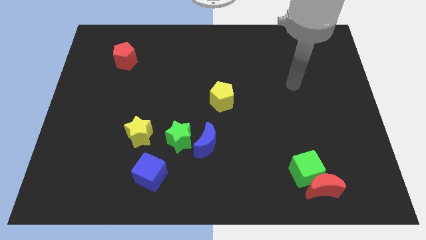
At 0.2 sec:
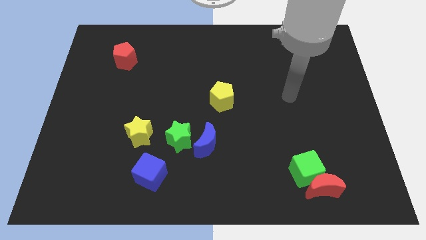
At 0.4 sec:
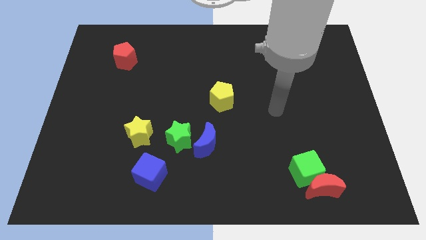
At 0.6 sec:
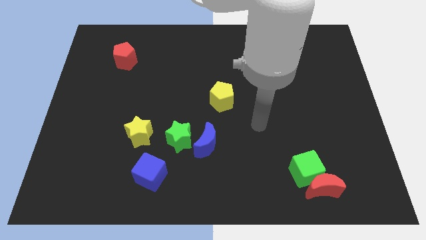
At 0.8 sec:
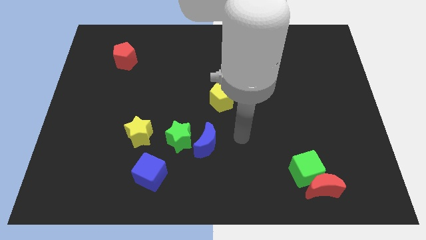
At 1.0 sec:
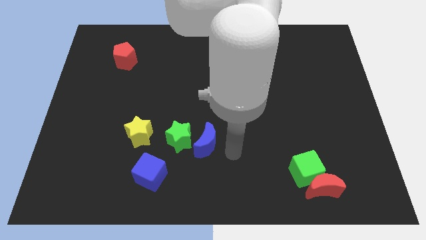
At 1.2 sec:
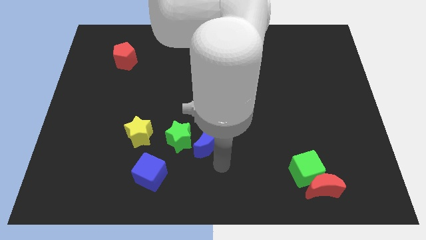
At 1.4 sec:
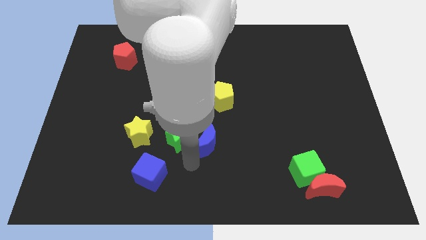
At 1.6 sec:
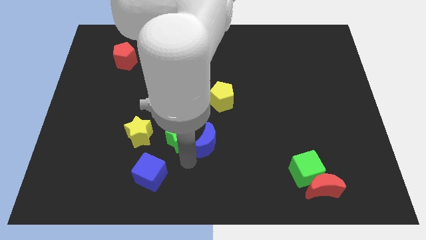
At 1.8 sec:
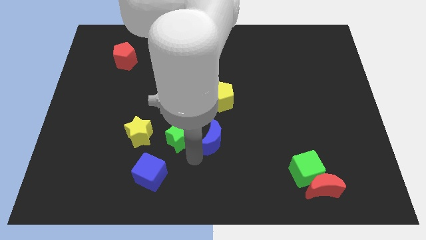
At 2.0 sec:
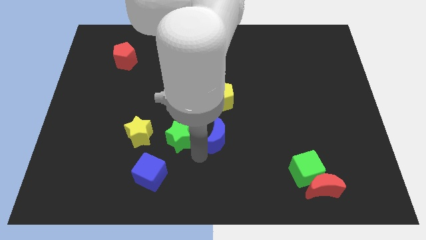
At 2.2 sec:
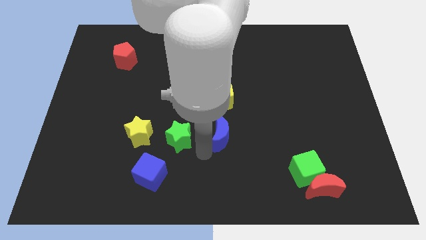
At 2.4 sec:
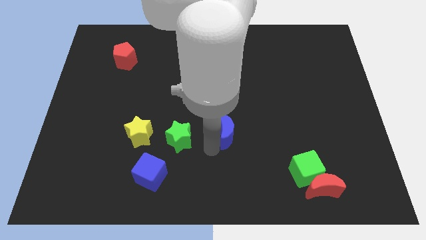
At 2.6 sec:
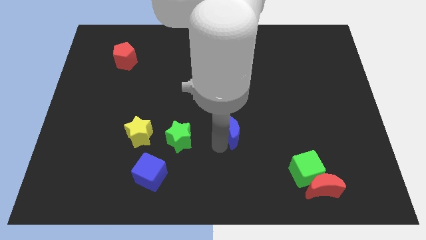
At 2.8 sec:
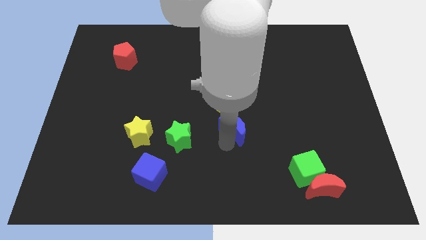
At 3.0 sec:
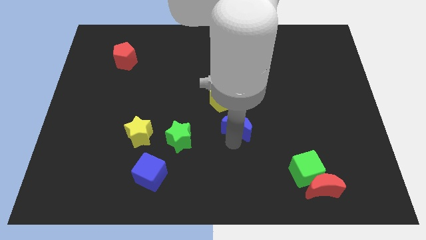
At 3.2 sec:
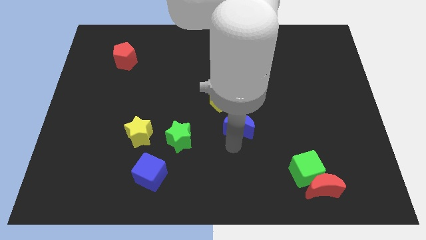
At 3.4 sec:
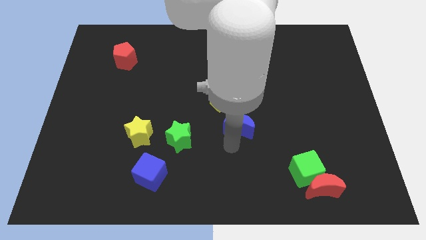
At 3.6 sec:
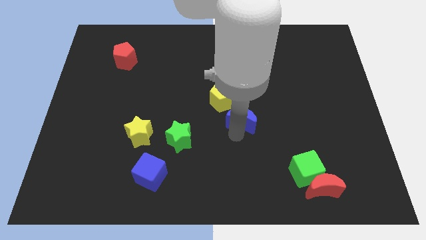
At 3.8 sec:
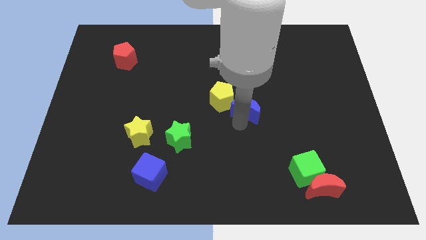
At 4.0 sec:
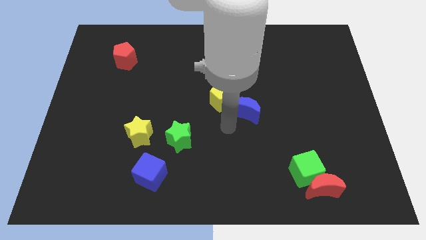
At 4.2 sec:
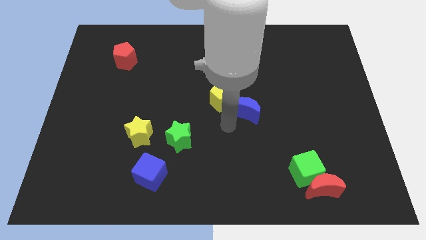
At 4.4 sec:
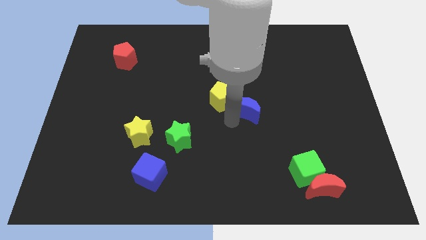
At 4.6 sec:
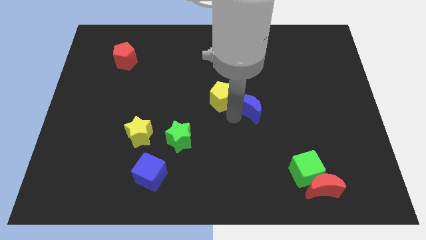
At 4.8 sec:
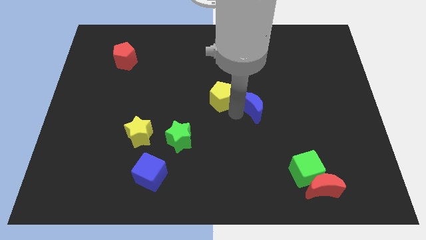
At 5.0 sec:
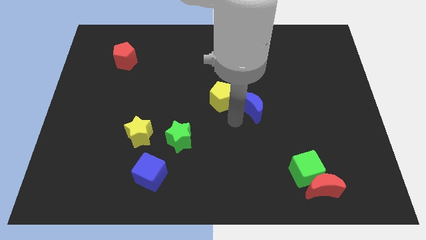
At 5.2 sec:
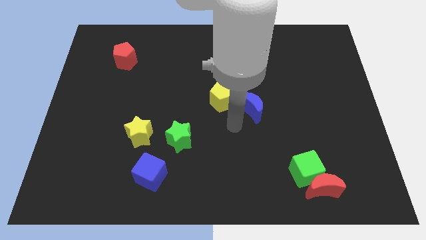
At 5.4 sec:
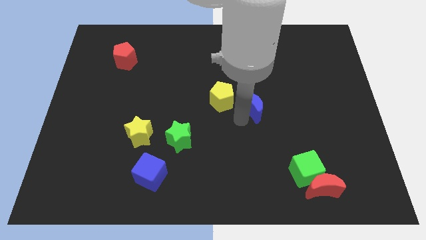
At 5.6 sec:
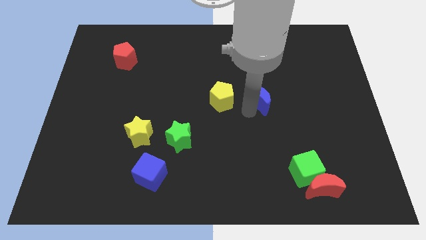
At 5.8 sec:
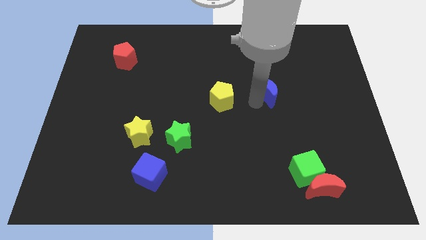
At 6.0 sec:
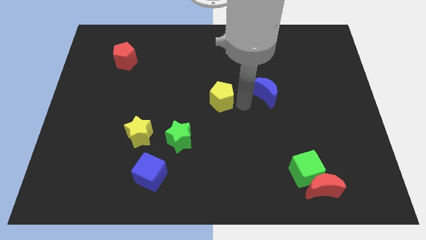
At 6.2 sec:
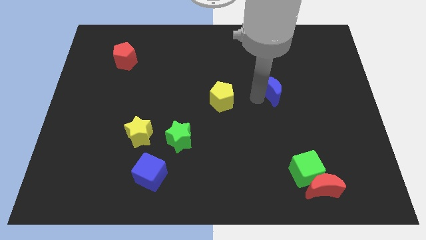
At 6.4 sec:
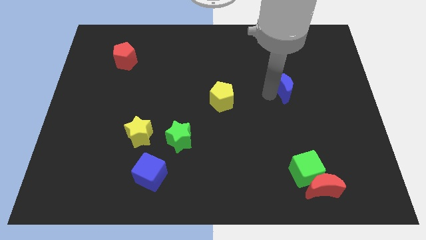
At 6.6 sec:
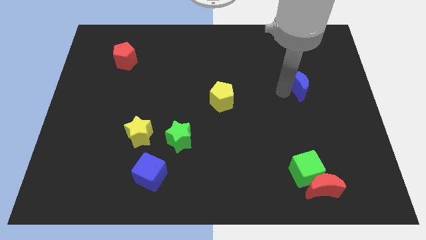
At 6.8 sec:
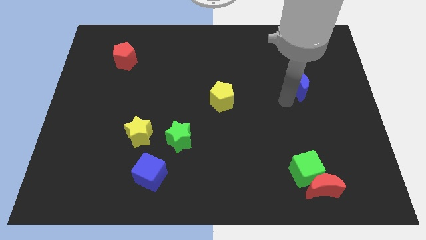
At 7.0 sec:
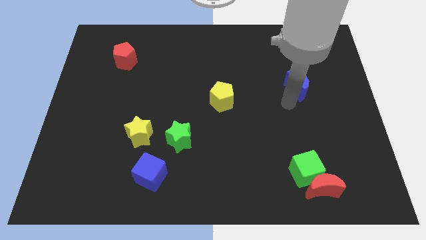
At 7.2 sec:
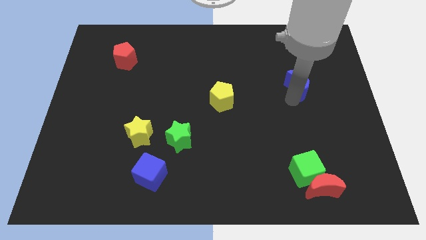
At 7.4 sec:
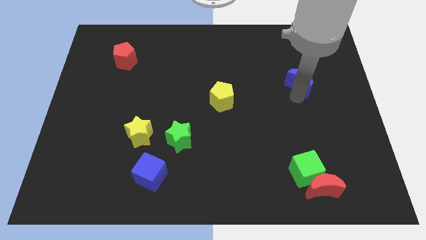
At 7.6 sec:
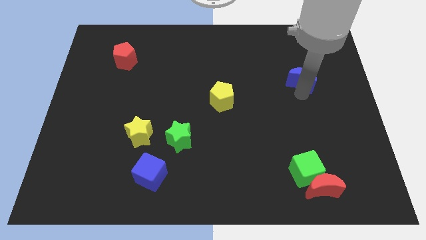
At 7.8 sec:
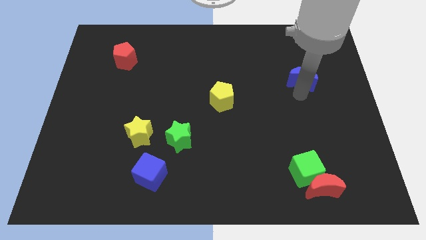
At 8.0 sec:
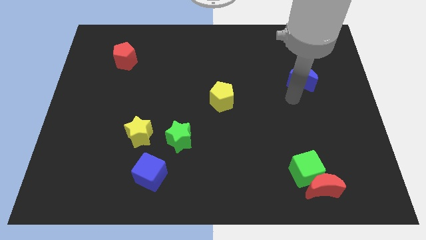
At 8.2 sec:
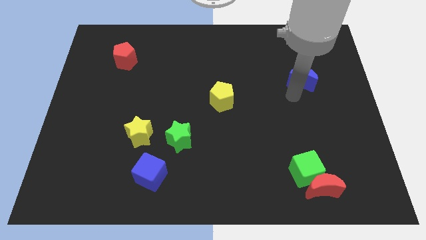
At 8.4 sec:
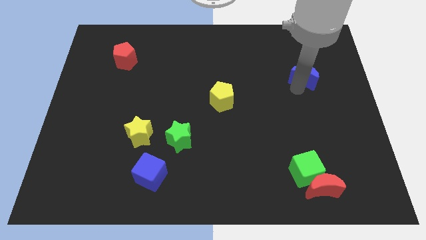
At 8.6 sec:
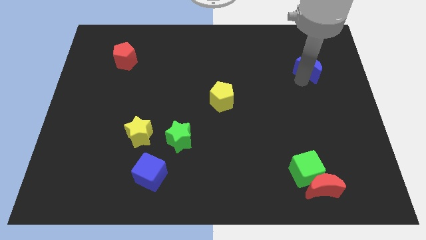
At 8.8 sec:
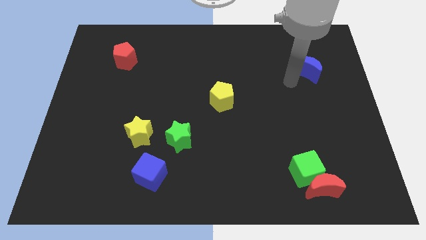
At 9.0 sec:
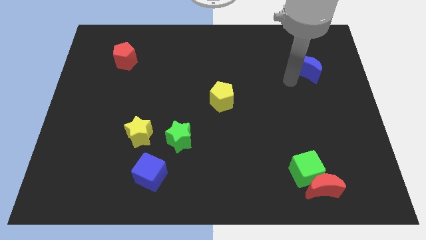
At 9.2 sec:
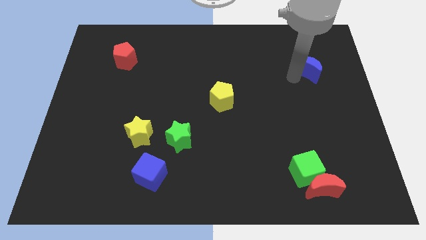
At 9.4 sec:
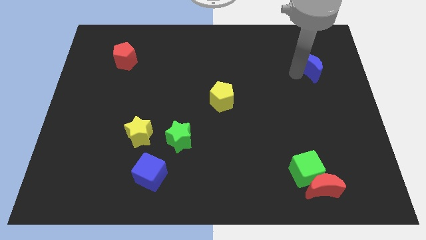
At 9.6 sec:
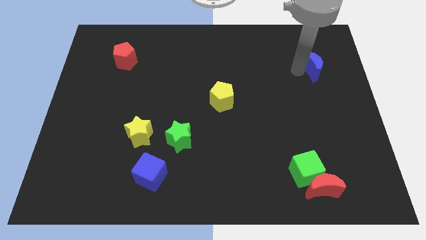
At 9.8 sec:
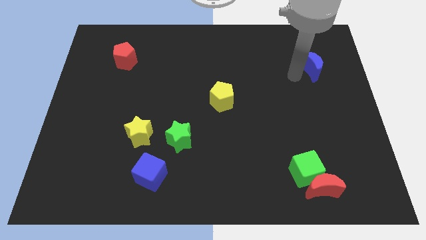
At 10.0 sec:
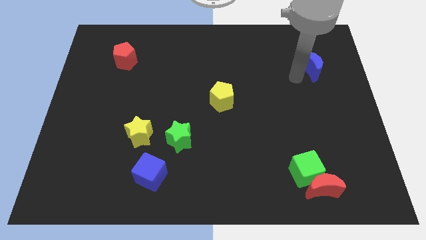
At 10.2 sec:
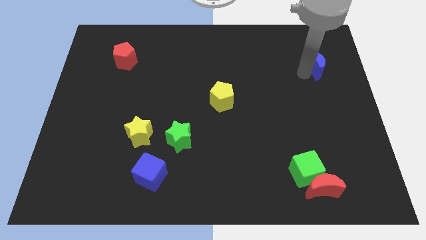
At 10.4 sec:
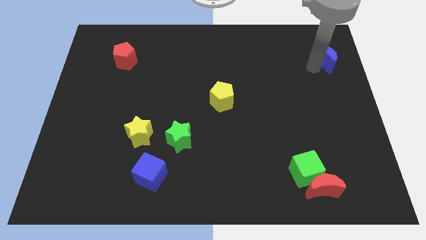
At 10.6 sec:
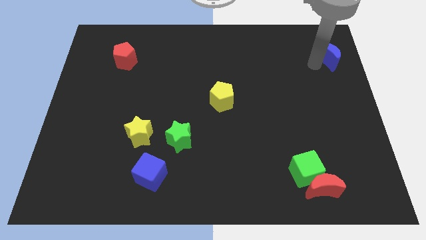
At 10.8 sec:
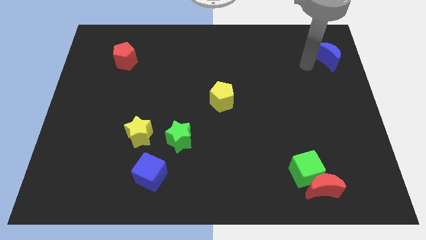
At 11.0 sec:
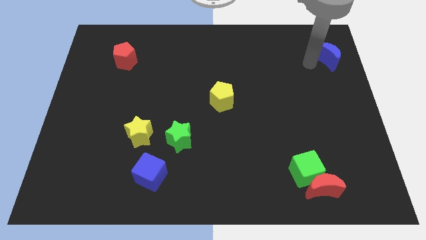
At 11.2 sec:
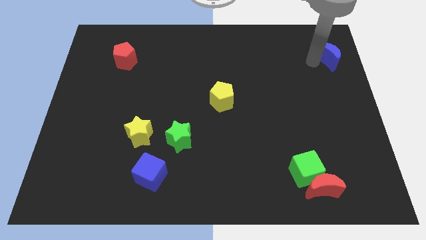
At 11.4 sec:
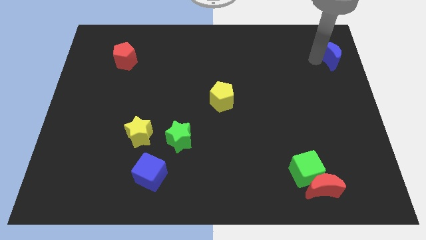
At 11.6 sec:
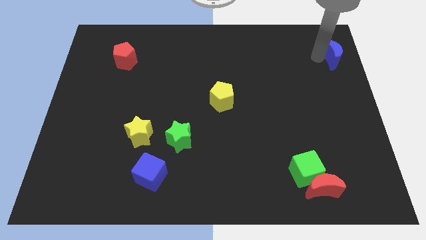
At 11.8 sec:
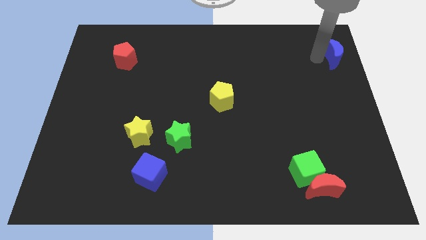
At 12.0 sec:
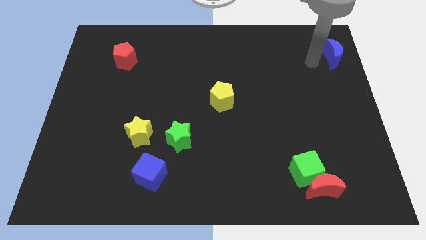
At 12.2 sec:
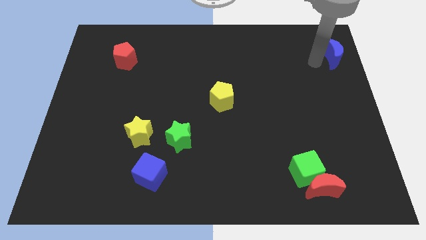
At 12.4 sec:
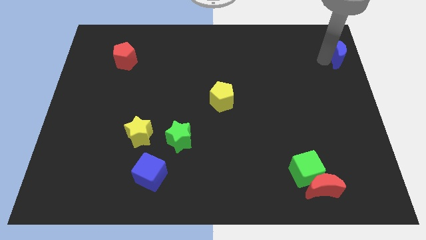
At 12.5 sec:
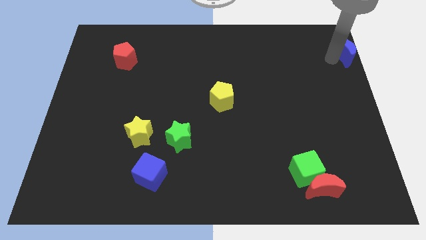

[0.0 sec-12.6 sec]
move the blue moon to the top right
